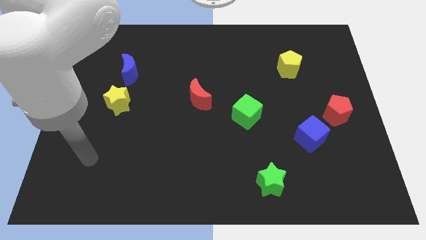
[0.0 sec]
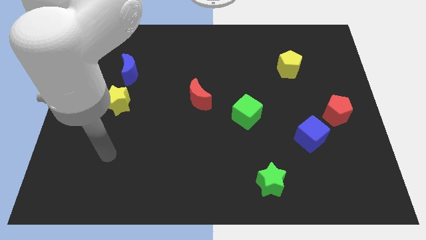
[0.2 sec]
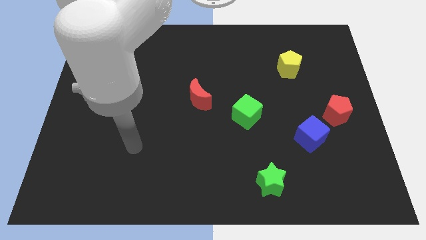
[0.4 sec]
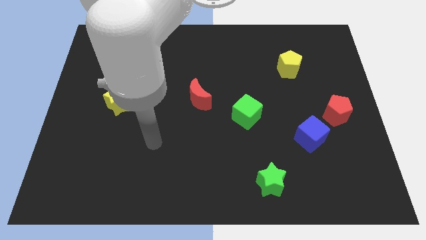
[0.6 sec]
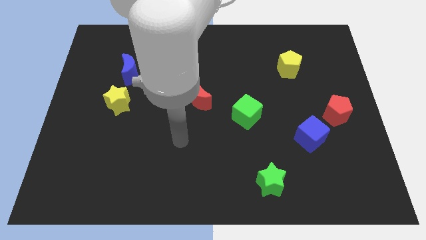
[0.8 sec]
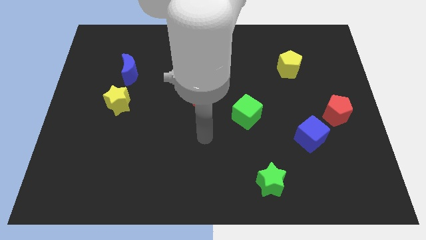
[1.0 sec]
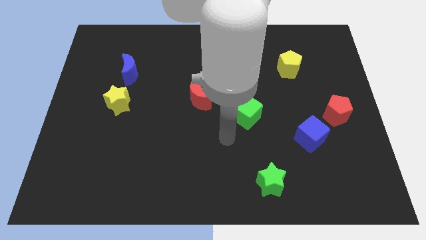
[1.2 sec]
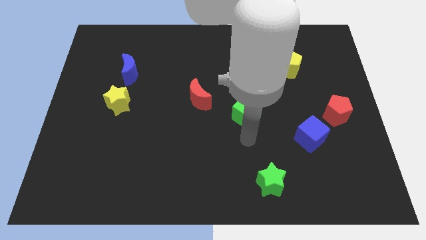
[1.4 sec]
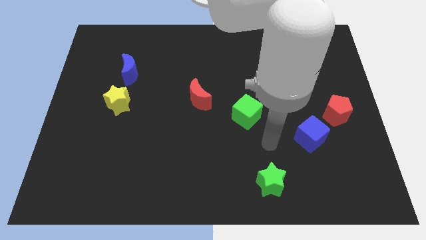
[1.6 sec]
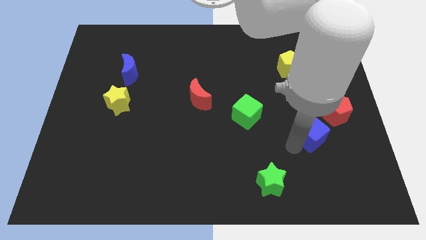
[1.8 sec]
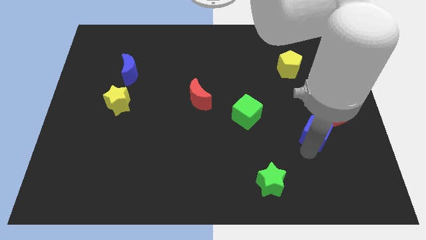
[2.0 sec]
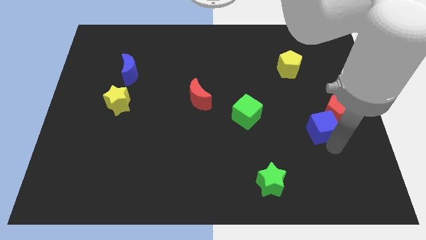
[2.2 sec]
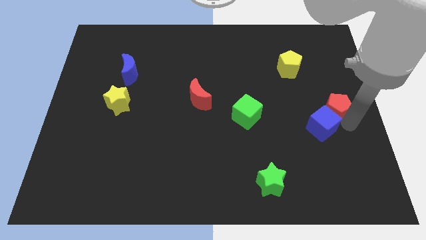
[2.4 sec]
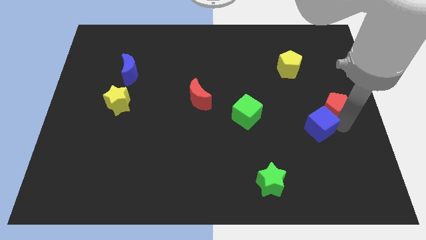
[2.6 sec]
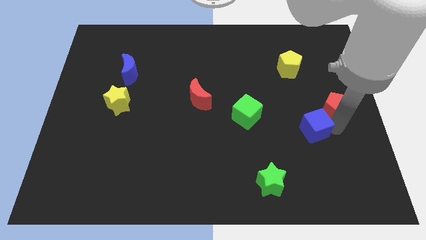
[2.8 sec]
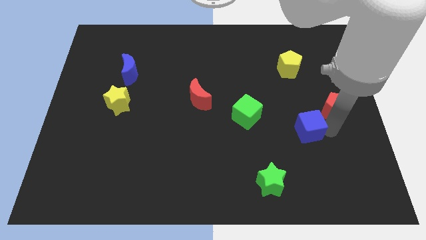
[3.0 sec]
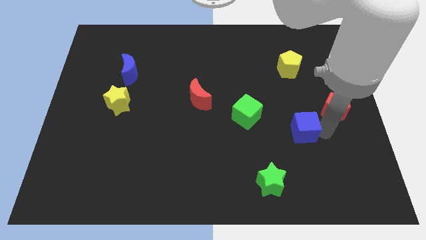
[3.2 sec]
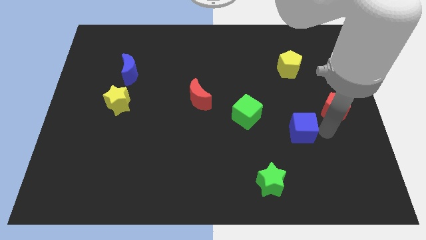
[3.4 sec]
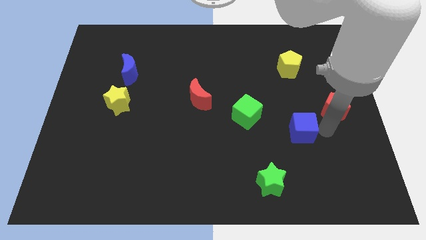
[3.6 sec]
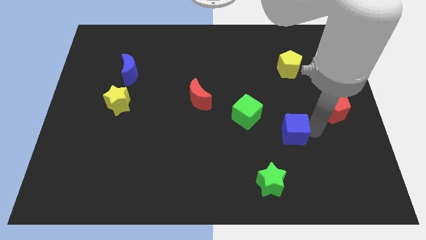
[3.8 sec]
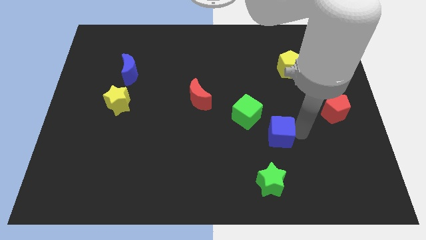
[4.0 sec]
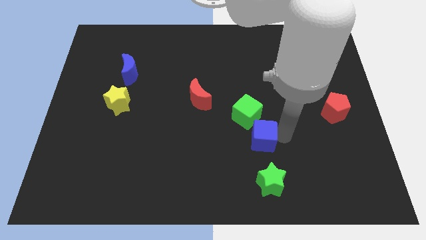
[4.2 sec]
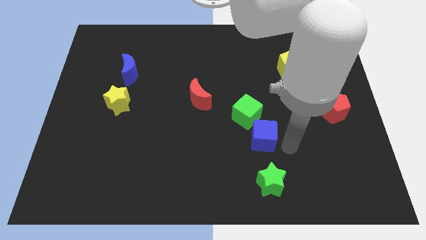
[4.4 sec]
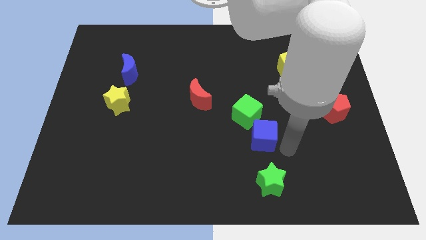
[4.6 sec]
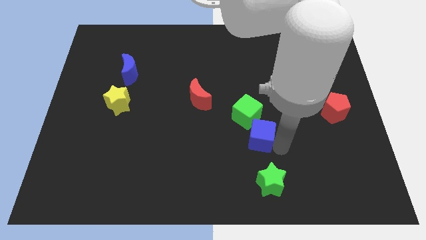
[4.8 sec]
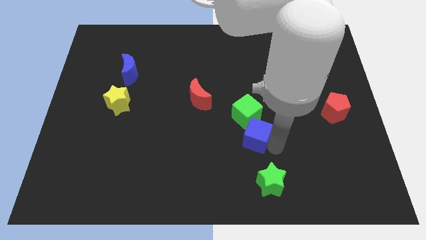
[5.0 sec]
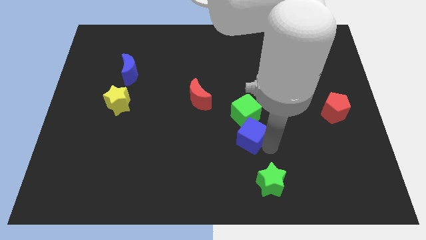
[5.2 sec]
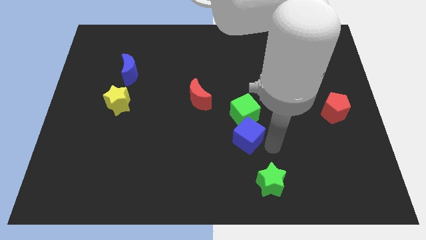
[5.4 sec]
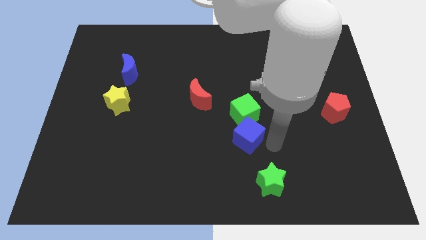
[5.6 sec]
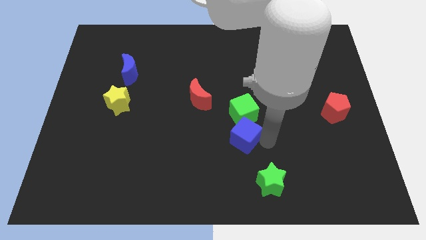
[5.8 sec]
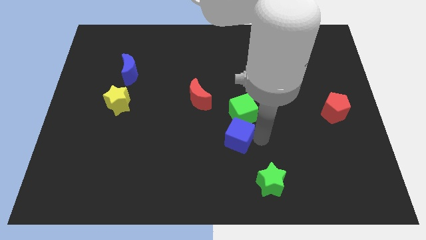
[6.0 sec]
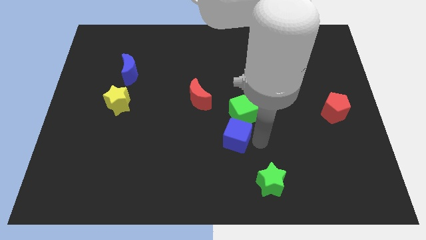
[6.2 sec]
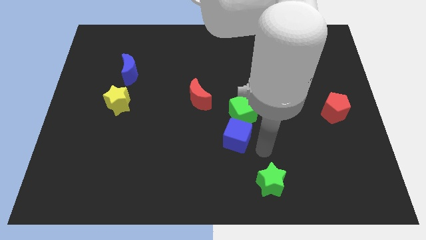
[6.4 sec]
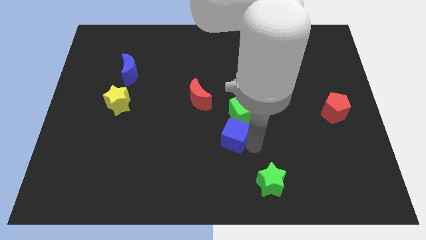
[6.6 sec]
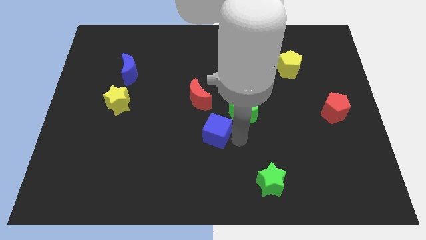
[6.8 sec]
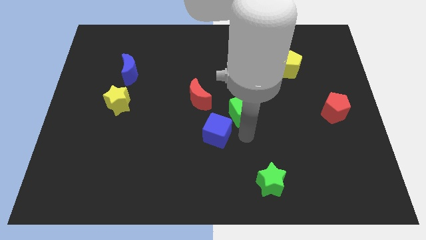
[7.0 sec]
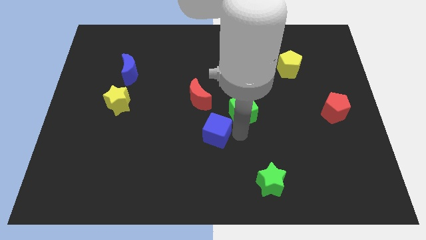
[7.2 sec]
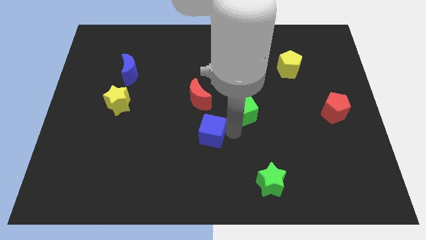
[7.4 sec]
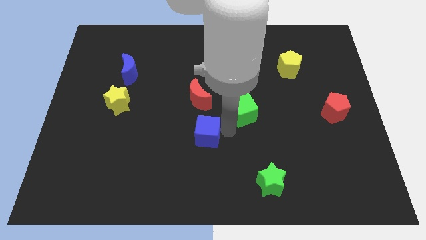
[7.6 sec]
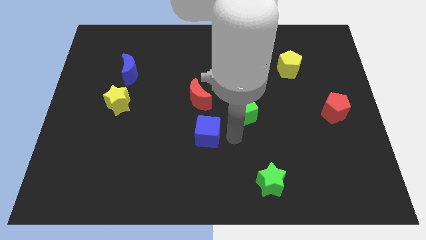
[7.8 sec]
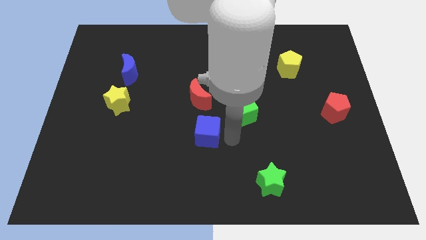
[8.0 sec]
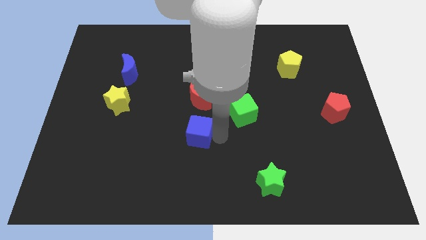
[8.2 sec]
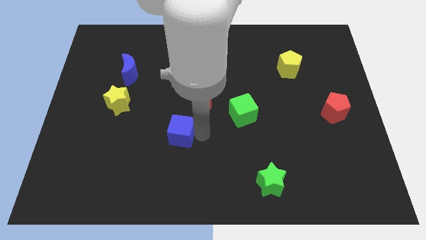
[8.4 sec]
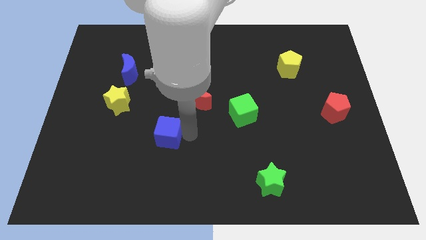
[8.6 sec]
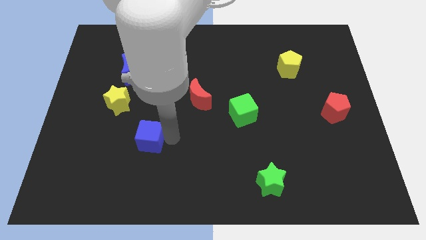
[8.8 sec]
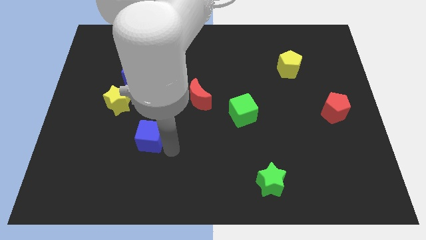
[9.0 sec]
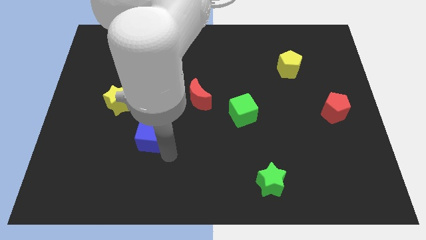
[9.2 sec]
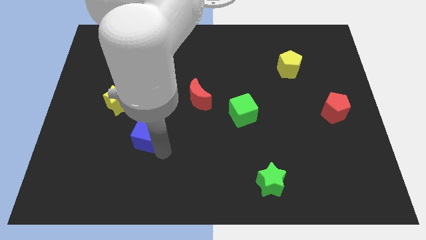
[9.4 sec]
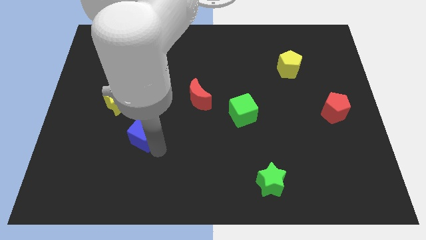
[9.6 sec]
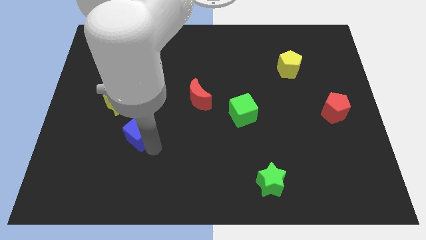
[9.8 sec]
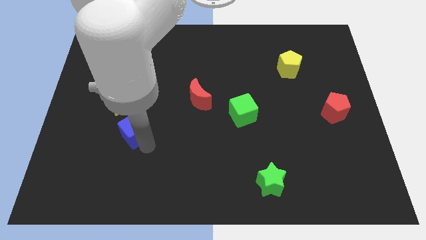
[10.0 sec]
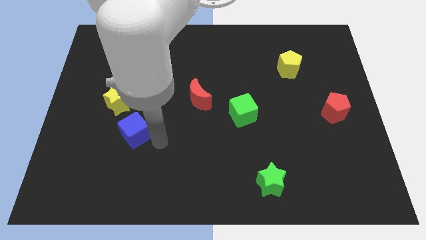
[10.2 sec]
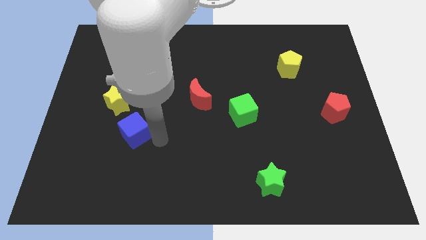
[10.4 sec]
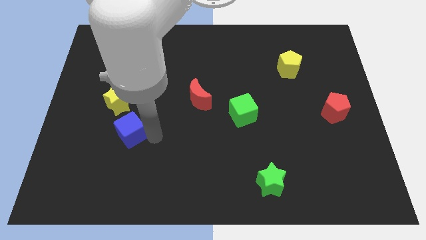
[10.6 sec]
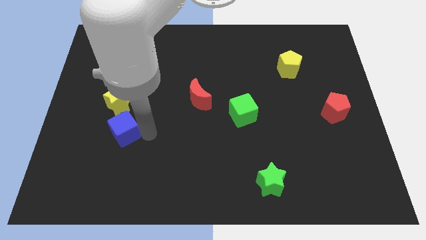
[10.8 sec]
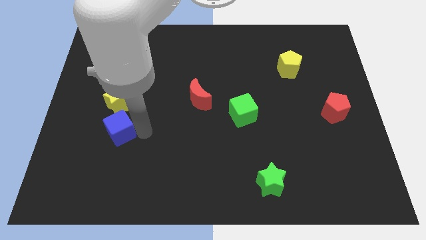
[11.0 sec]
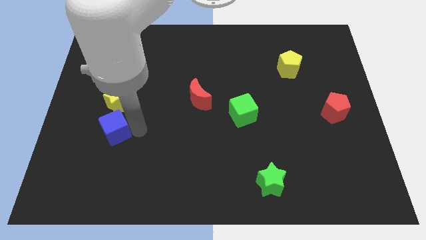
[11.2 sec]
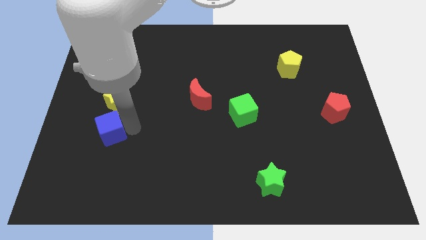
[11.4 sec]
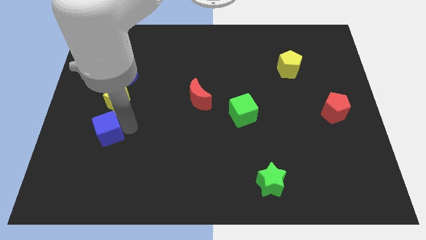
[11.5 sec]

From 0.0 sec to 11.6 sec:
put the blue cube to the bottom left side of the yellow star

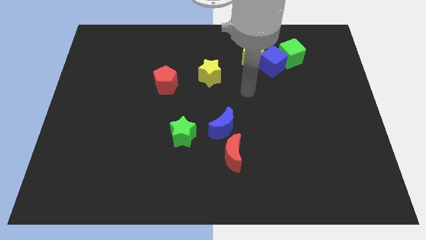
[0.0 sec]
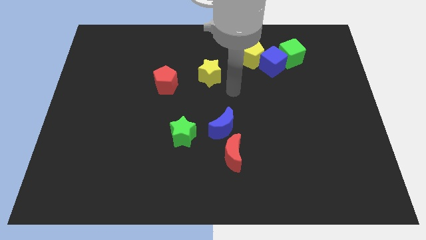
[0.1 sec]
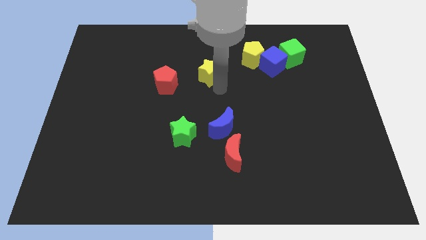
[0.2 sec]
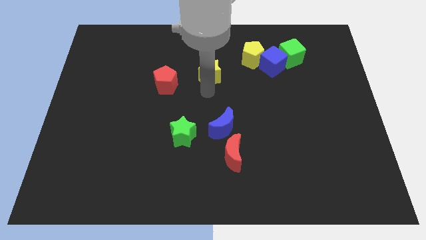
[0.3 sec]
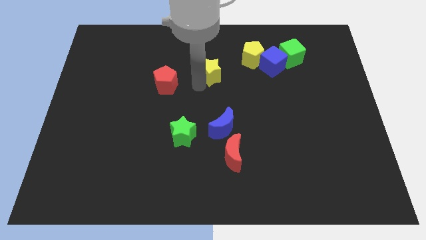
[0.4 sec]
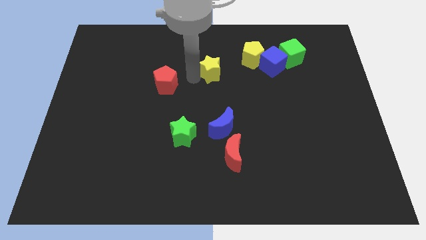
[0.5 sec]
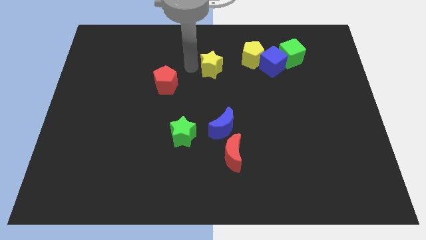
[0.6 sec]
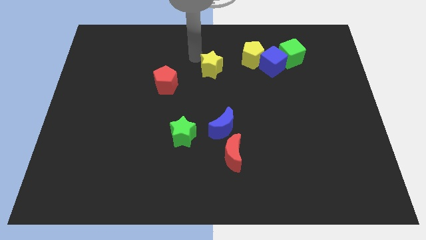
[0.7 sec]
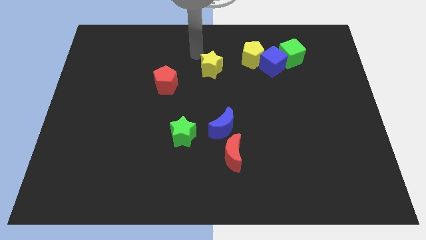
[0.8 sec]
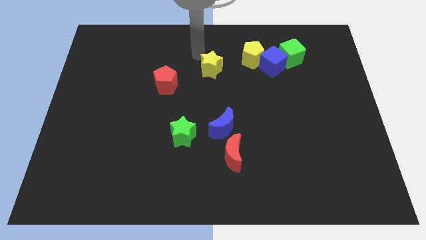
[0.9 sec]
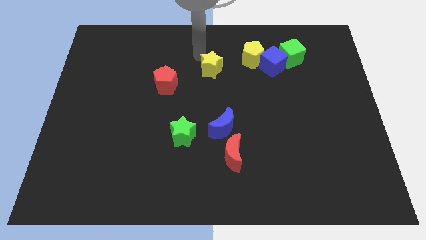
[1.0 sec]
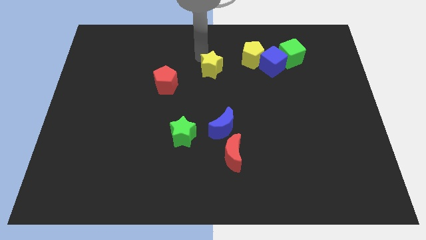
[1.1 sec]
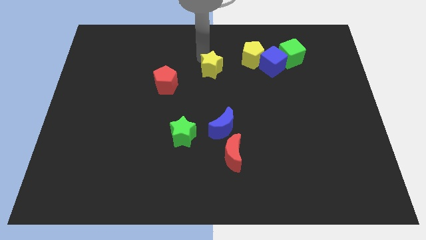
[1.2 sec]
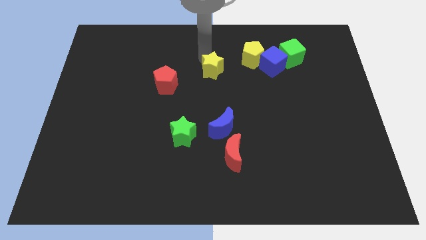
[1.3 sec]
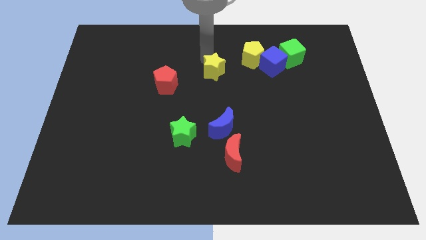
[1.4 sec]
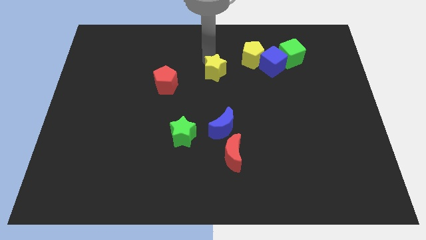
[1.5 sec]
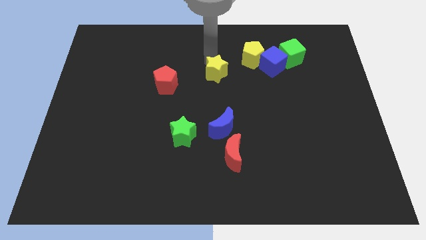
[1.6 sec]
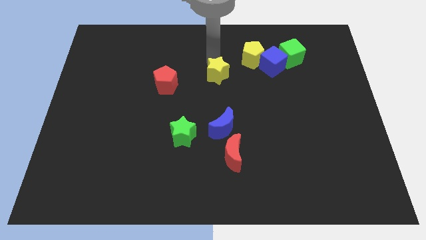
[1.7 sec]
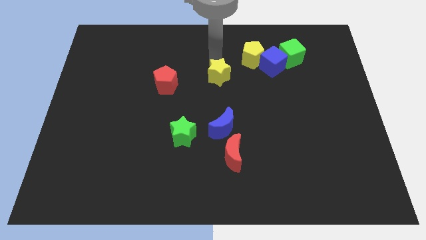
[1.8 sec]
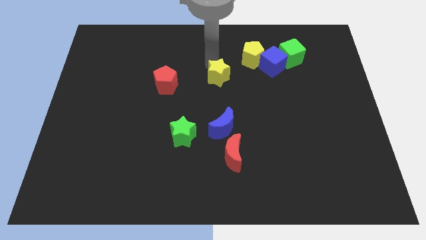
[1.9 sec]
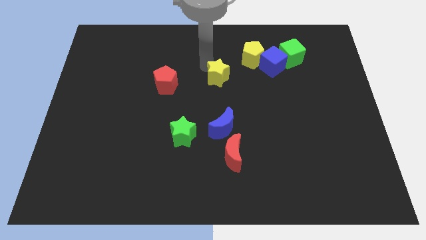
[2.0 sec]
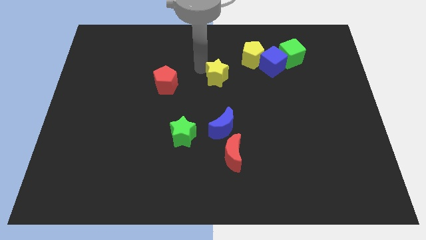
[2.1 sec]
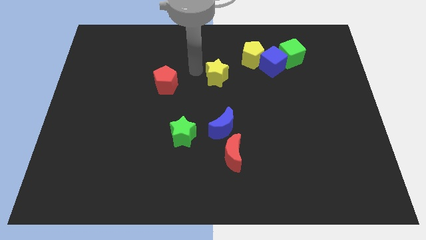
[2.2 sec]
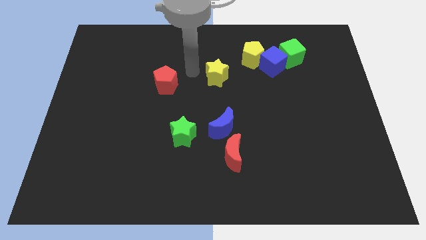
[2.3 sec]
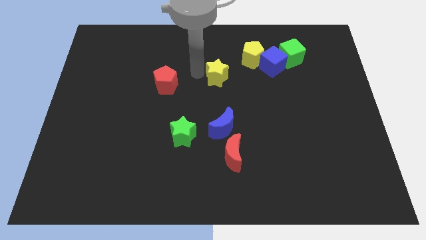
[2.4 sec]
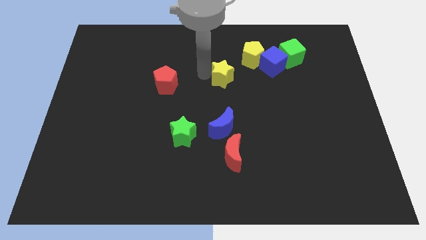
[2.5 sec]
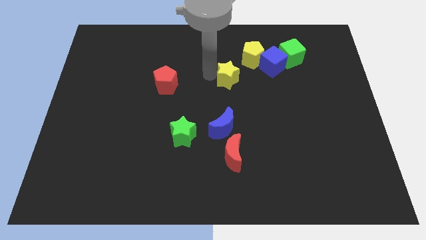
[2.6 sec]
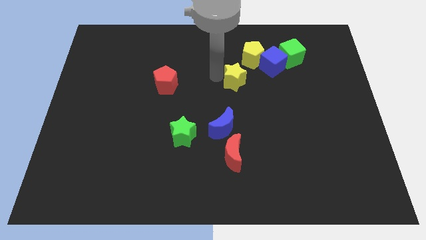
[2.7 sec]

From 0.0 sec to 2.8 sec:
slide the yellow star to the bottom left of the blue cube
